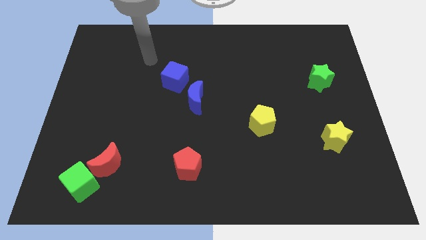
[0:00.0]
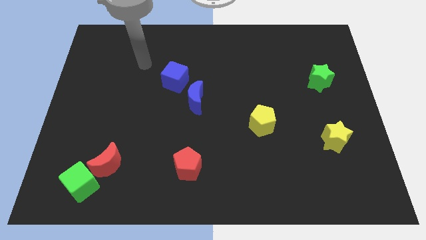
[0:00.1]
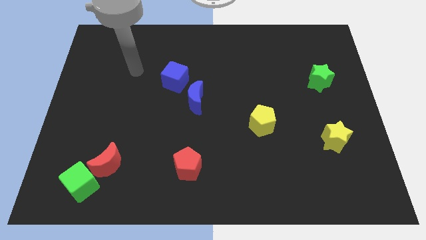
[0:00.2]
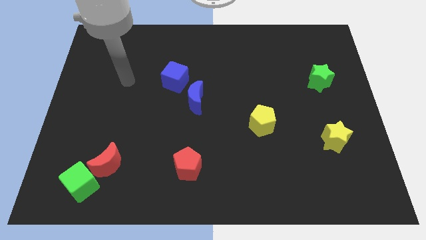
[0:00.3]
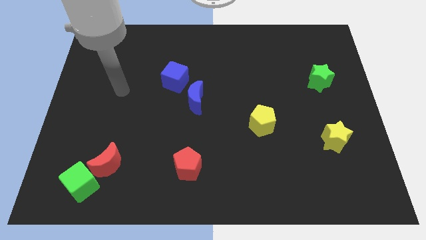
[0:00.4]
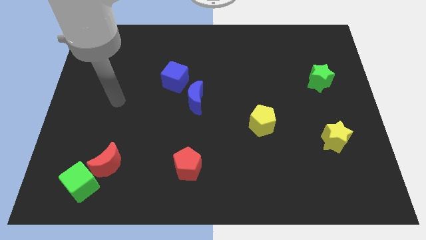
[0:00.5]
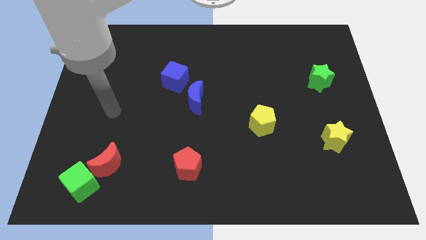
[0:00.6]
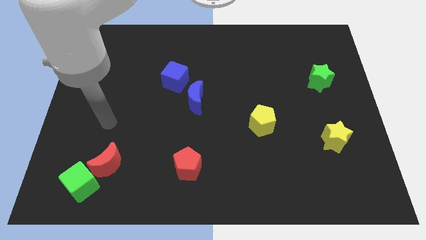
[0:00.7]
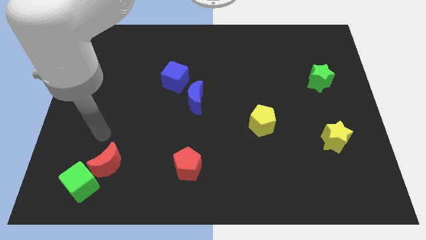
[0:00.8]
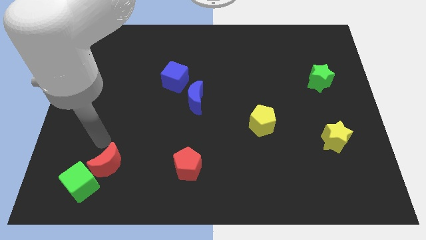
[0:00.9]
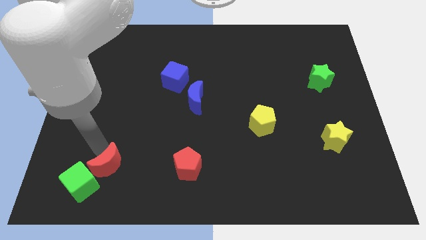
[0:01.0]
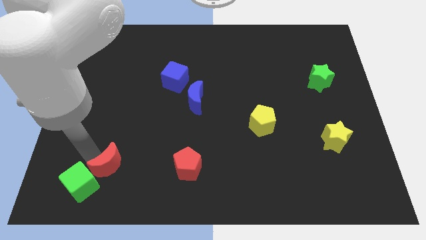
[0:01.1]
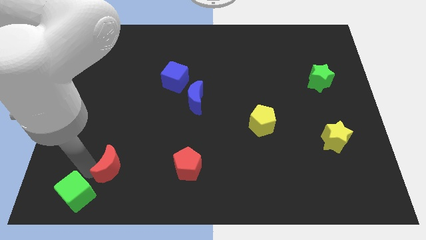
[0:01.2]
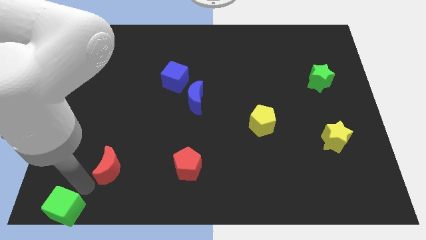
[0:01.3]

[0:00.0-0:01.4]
separate the red moon from the green cube

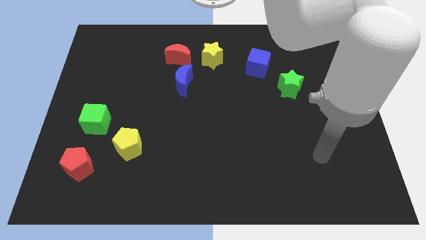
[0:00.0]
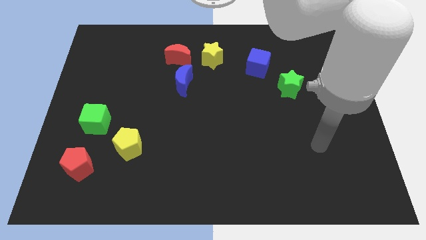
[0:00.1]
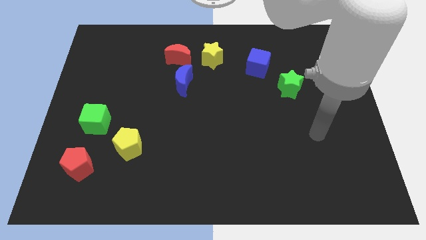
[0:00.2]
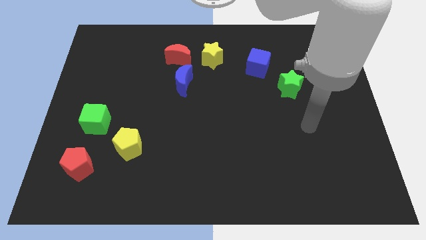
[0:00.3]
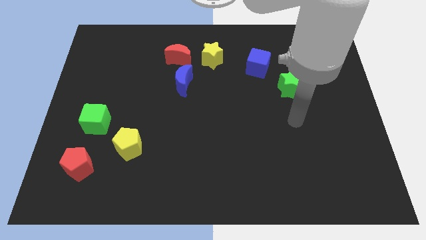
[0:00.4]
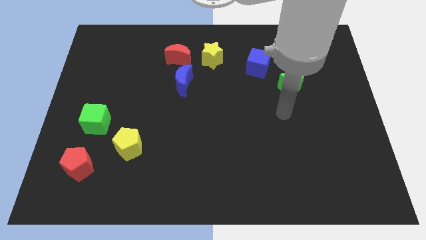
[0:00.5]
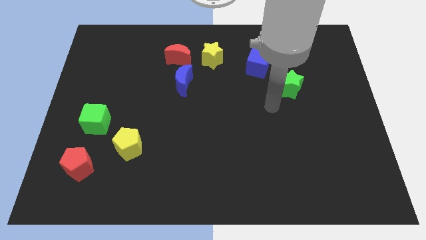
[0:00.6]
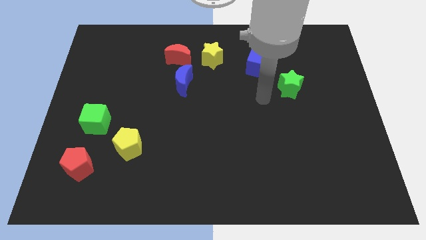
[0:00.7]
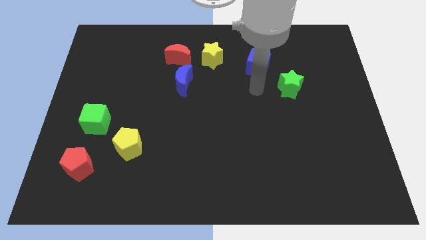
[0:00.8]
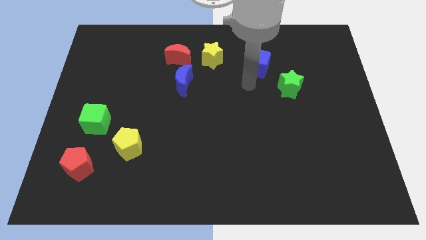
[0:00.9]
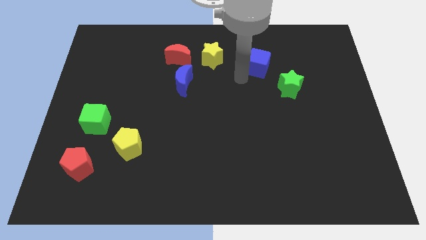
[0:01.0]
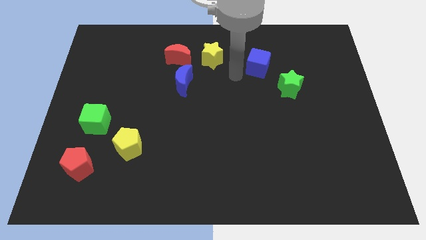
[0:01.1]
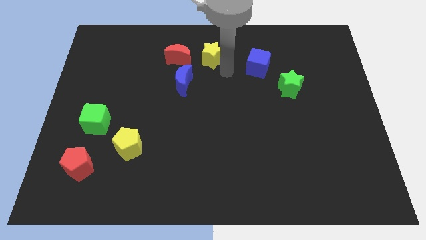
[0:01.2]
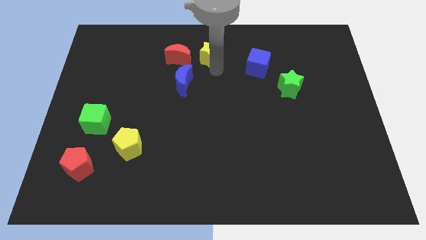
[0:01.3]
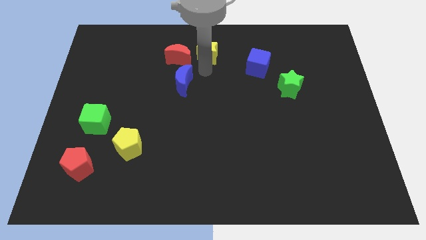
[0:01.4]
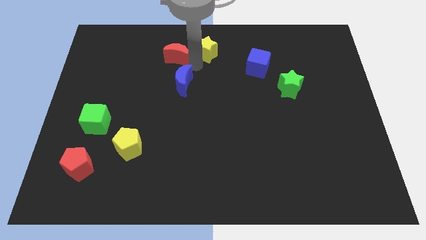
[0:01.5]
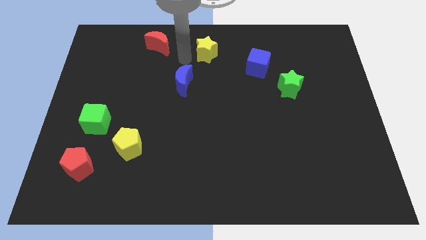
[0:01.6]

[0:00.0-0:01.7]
separate the yellow star from the red moon

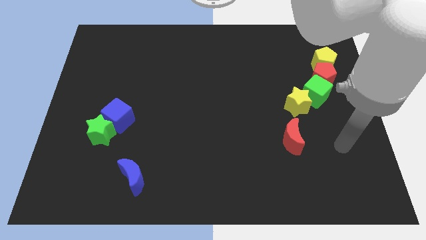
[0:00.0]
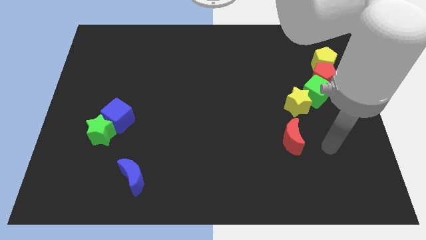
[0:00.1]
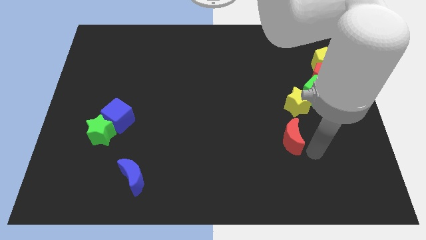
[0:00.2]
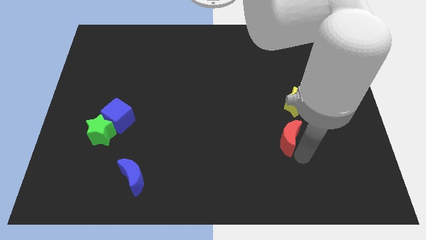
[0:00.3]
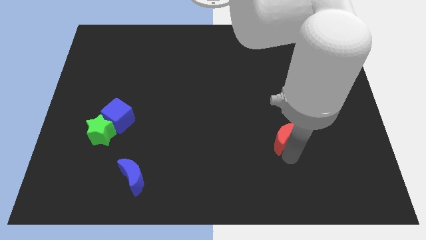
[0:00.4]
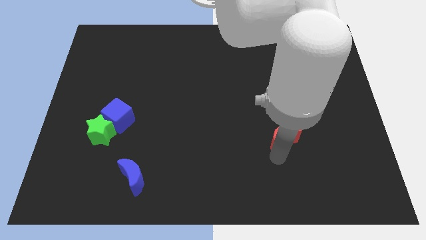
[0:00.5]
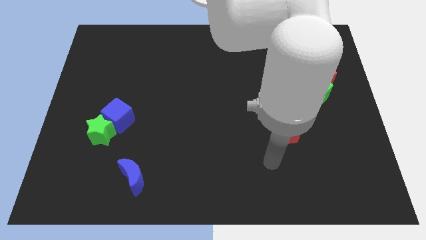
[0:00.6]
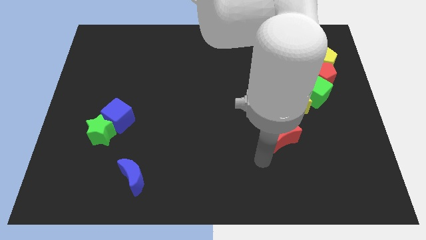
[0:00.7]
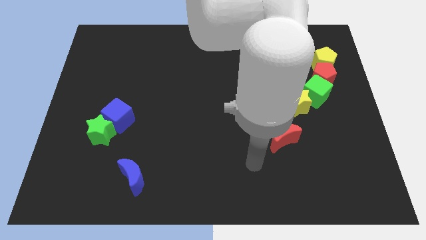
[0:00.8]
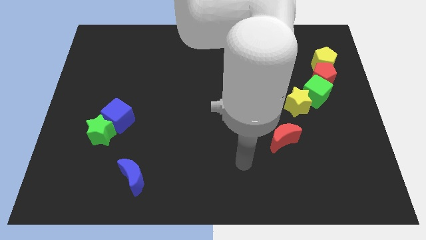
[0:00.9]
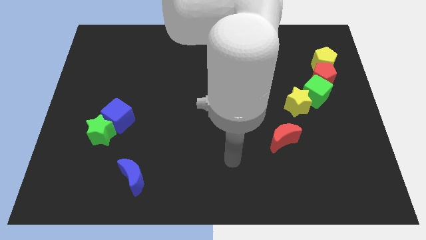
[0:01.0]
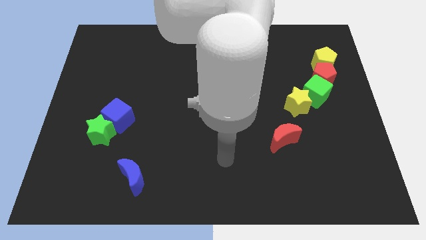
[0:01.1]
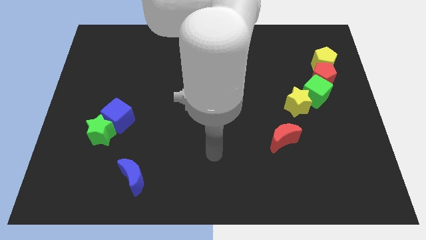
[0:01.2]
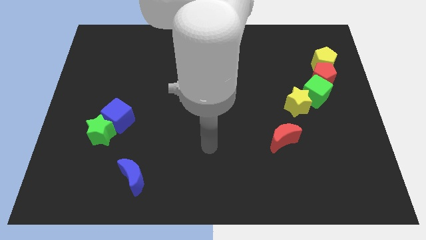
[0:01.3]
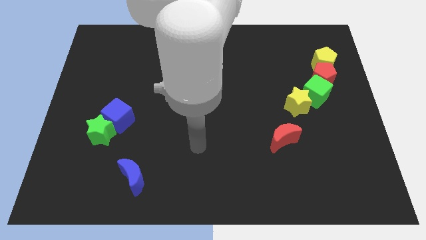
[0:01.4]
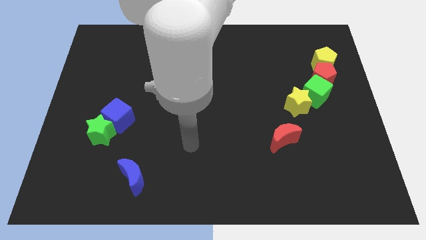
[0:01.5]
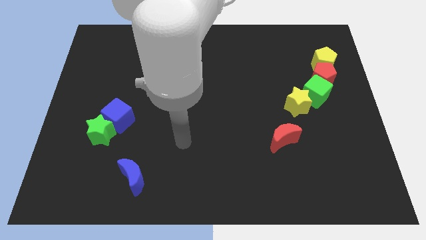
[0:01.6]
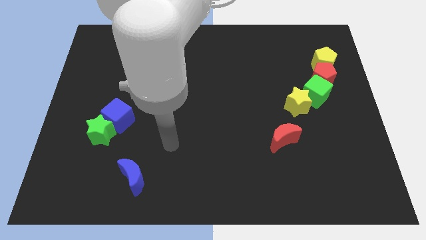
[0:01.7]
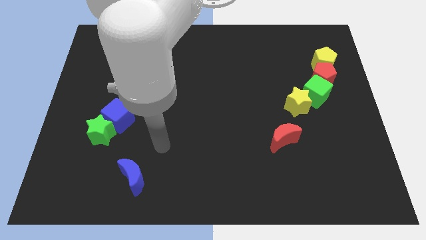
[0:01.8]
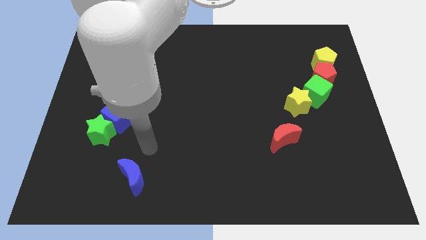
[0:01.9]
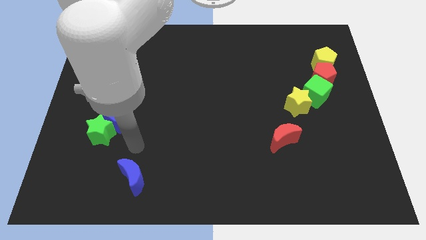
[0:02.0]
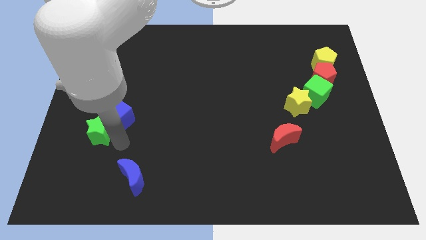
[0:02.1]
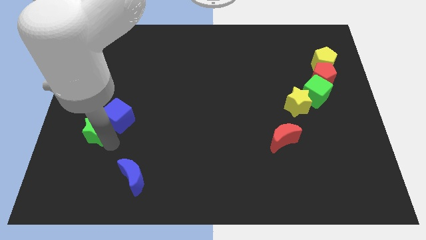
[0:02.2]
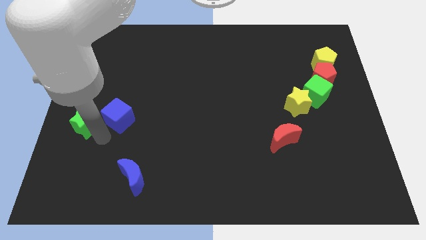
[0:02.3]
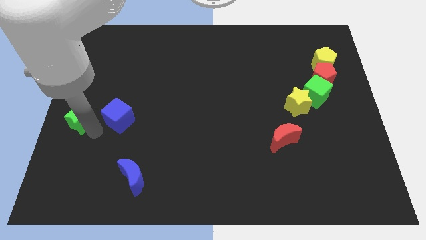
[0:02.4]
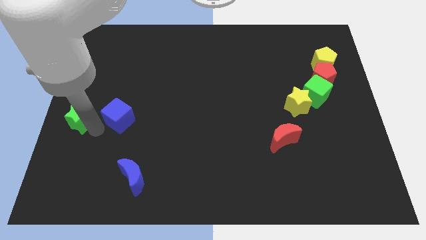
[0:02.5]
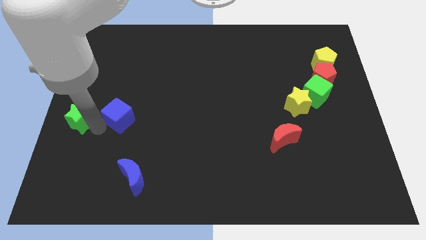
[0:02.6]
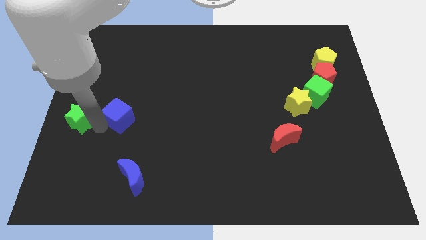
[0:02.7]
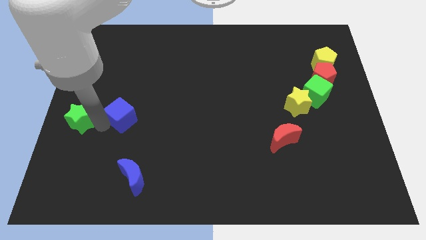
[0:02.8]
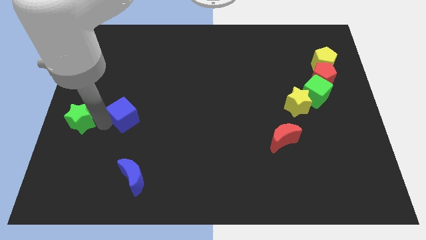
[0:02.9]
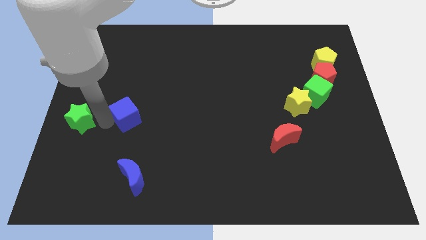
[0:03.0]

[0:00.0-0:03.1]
move the blue cube away from the green star

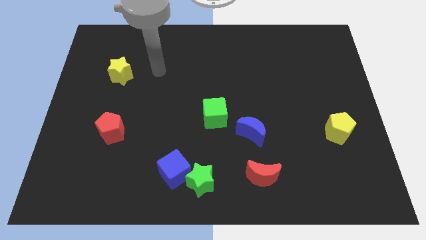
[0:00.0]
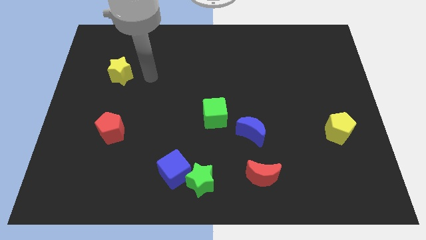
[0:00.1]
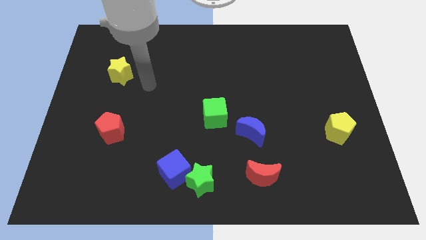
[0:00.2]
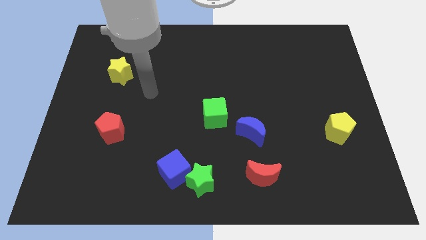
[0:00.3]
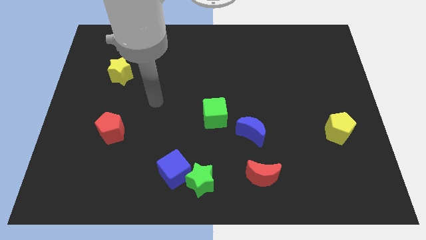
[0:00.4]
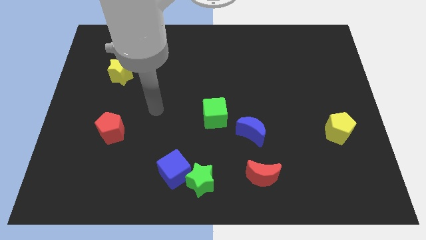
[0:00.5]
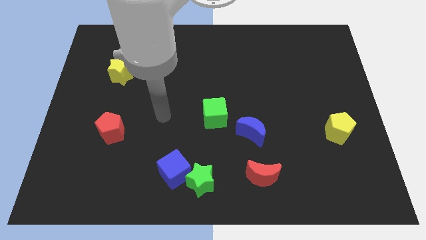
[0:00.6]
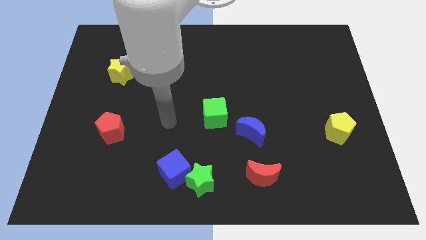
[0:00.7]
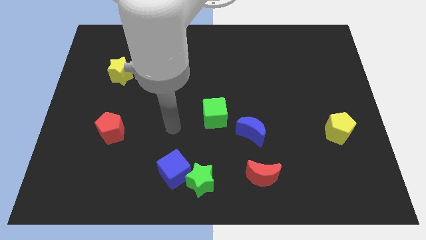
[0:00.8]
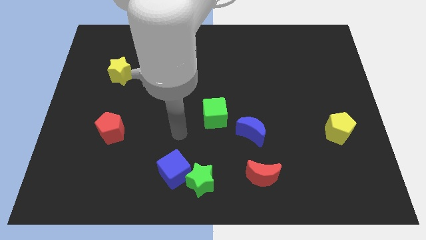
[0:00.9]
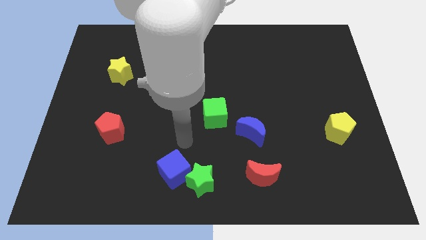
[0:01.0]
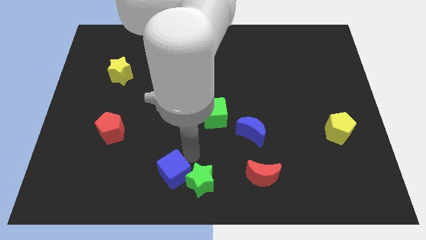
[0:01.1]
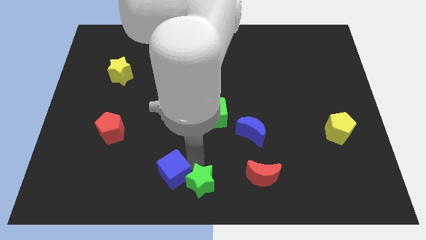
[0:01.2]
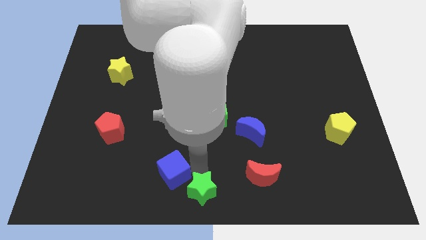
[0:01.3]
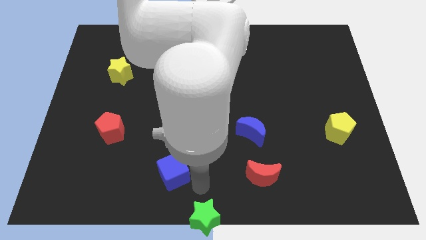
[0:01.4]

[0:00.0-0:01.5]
pull the blue cube apart from the green star

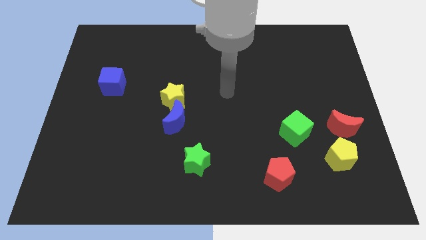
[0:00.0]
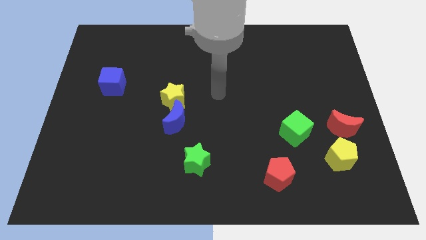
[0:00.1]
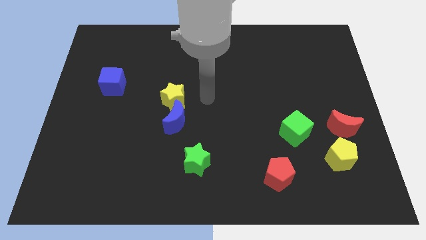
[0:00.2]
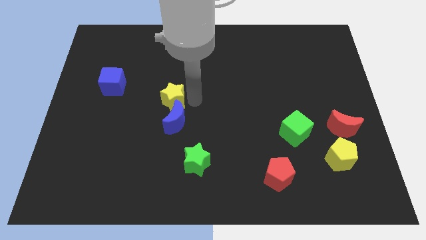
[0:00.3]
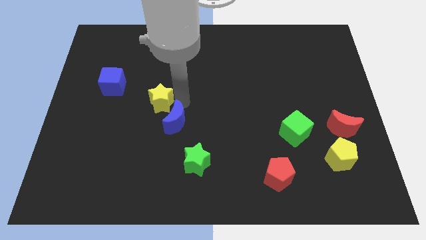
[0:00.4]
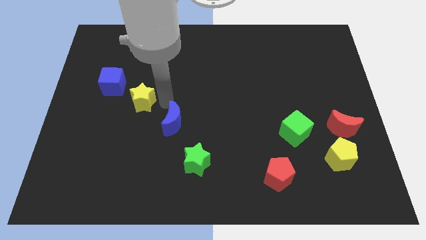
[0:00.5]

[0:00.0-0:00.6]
separate the blue moon from the yellow star

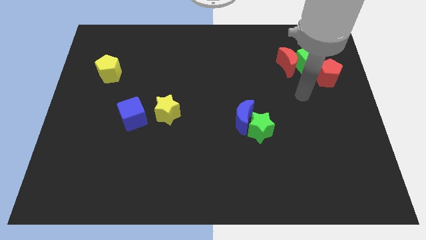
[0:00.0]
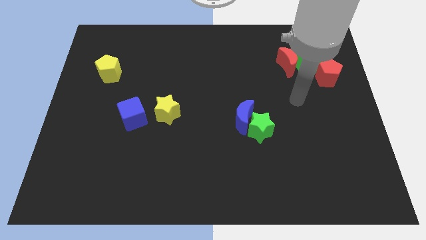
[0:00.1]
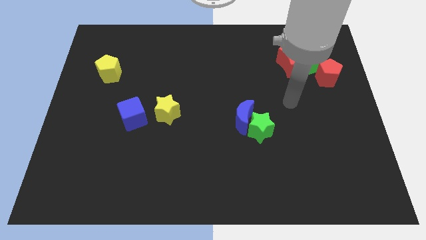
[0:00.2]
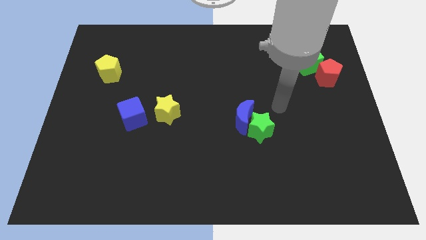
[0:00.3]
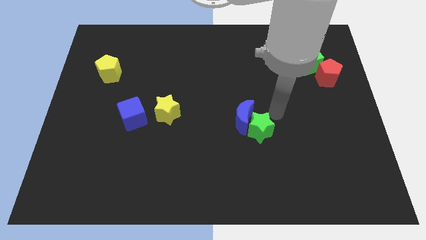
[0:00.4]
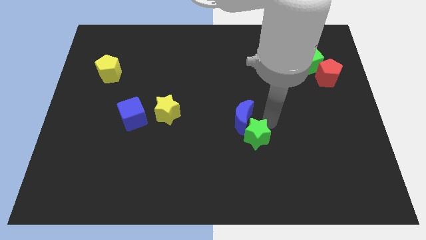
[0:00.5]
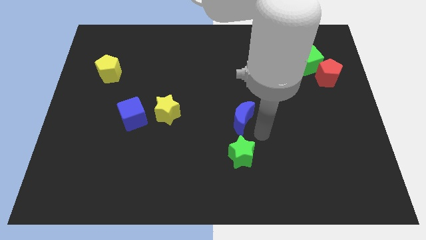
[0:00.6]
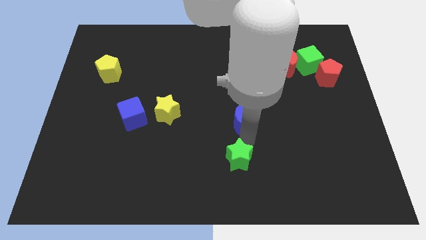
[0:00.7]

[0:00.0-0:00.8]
pull the blue moon apart from the green star

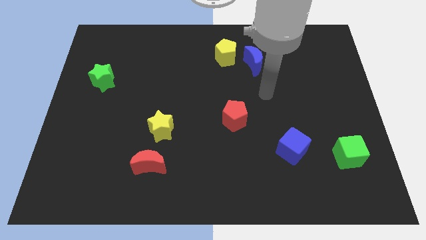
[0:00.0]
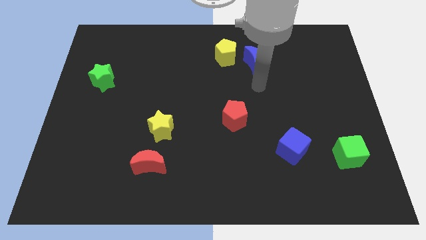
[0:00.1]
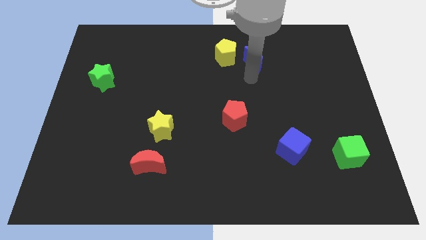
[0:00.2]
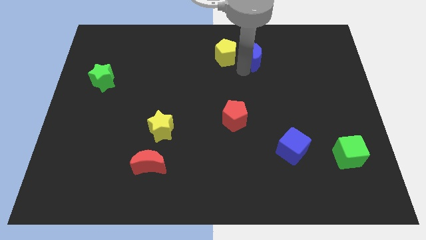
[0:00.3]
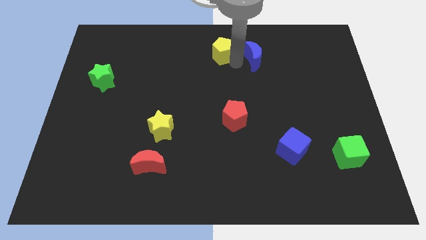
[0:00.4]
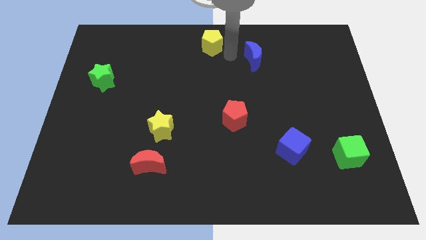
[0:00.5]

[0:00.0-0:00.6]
pull the blue moon apart from the yellow pentagon
